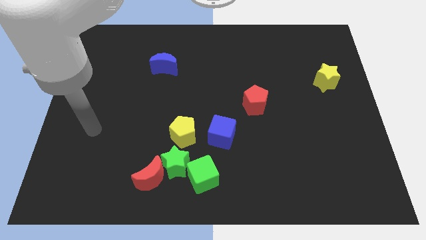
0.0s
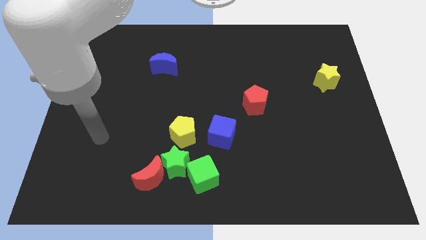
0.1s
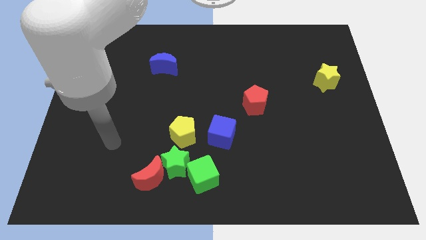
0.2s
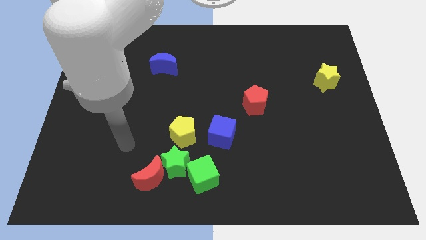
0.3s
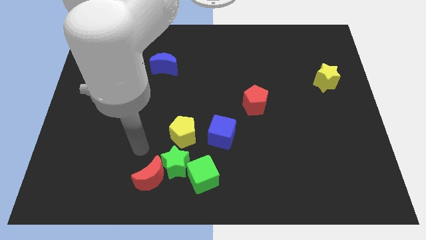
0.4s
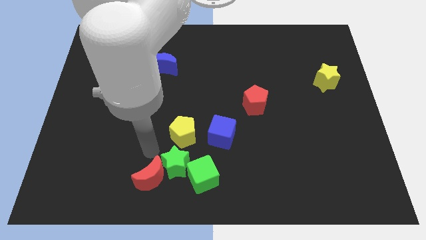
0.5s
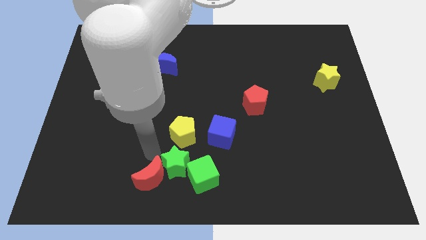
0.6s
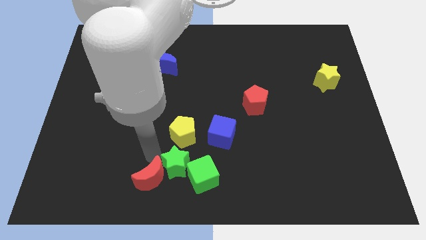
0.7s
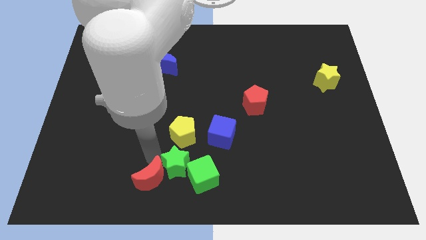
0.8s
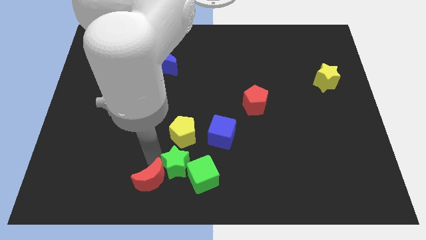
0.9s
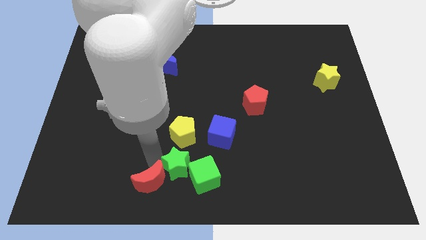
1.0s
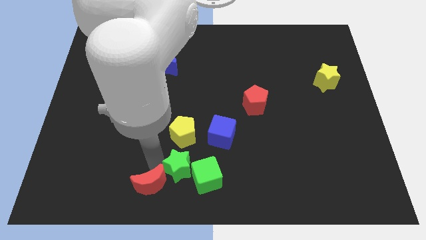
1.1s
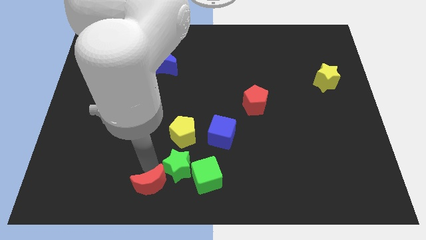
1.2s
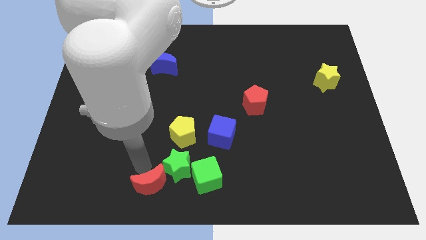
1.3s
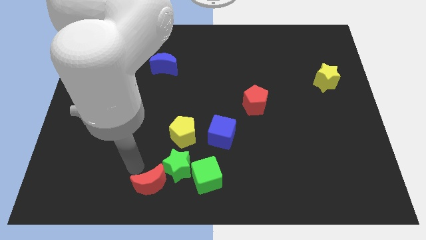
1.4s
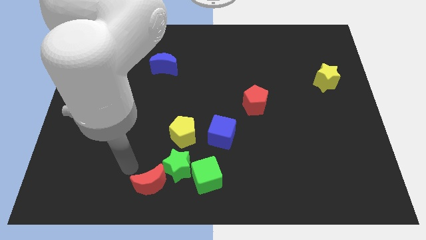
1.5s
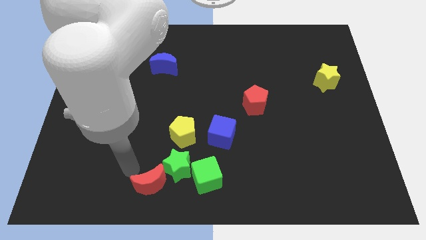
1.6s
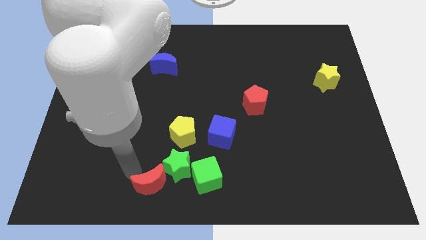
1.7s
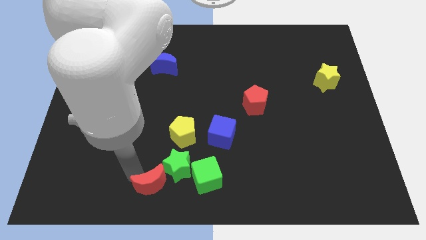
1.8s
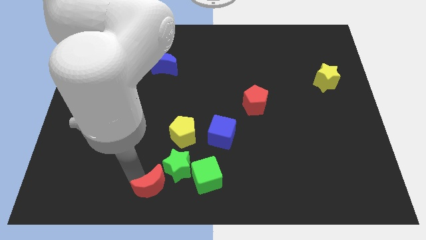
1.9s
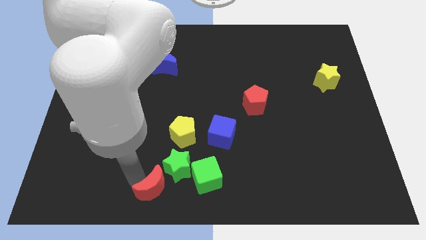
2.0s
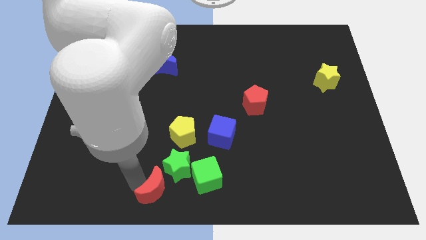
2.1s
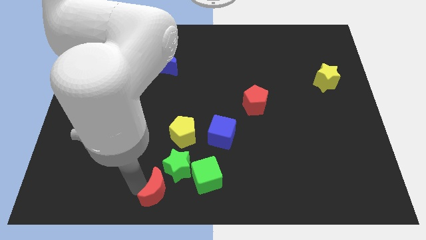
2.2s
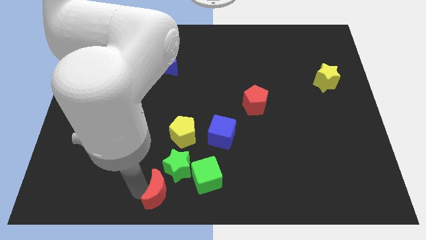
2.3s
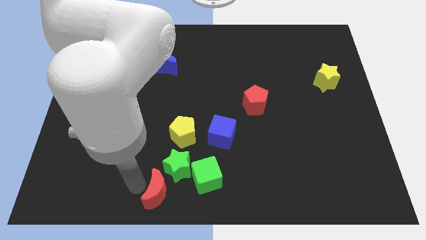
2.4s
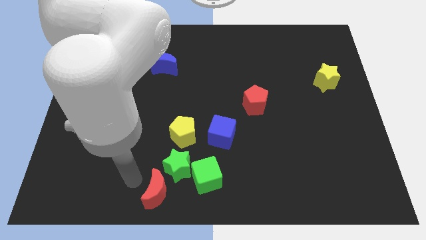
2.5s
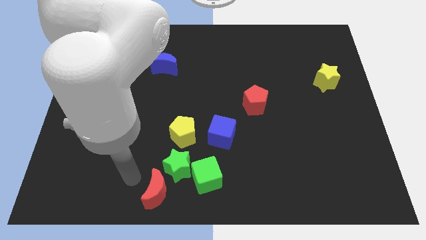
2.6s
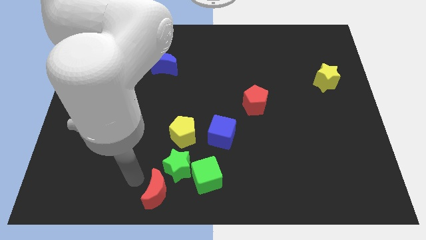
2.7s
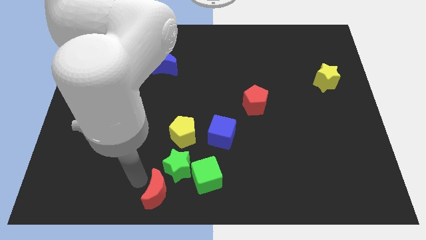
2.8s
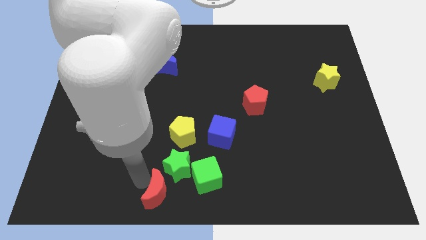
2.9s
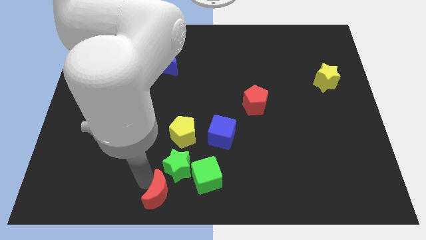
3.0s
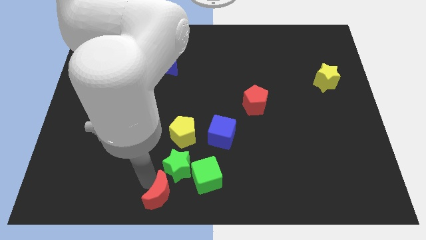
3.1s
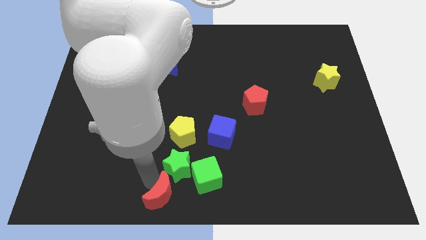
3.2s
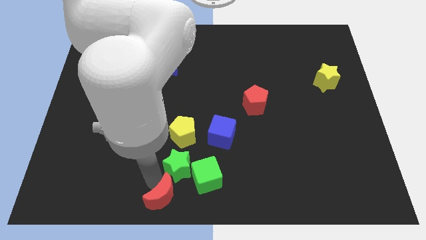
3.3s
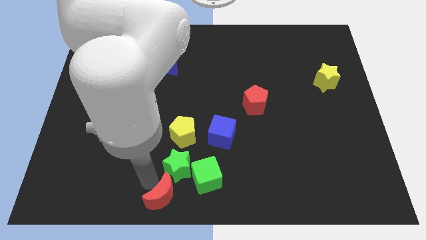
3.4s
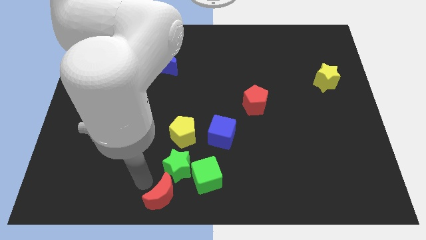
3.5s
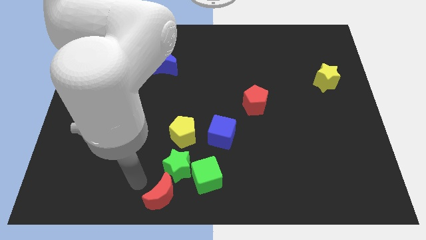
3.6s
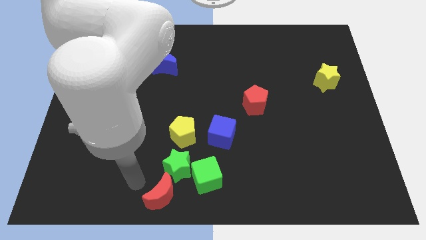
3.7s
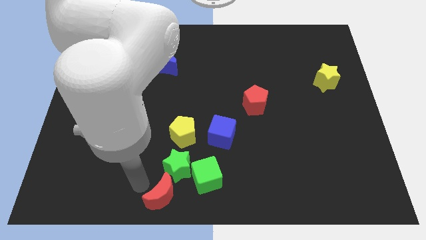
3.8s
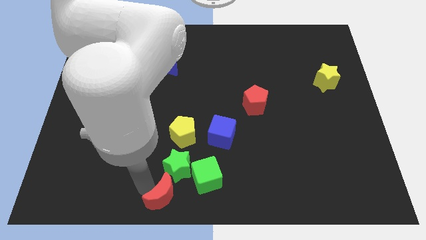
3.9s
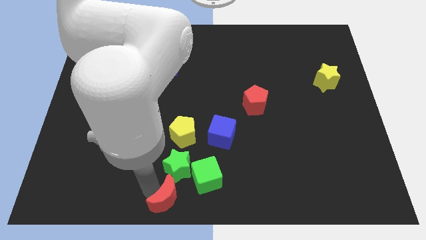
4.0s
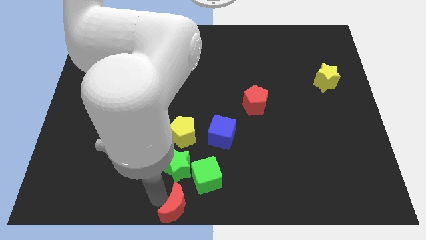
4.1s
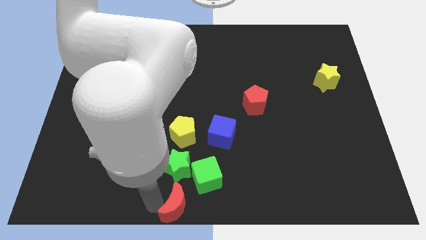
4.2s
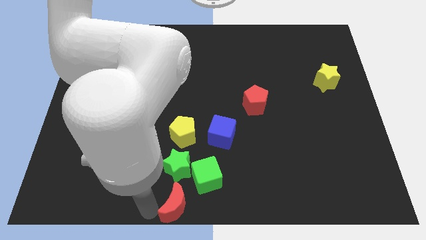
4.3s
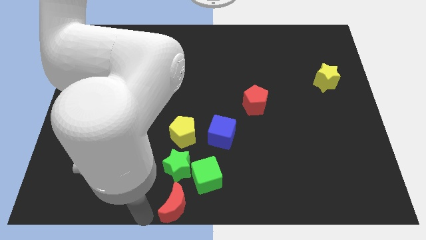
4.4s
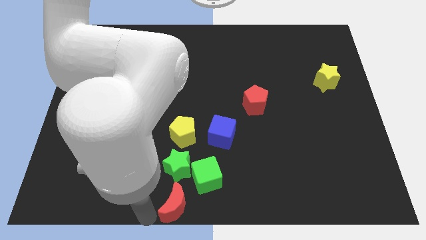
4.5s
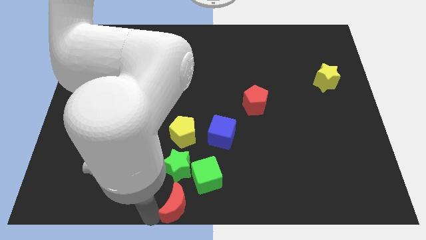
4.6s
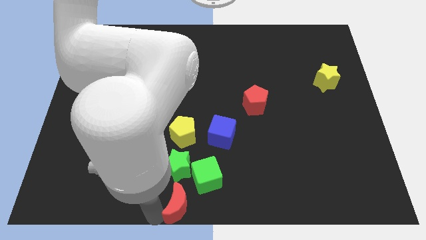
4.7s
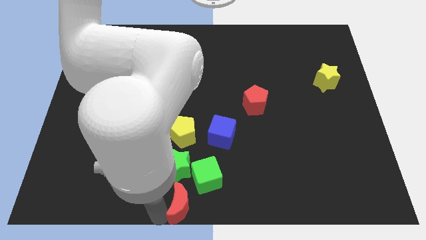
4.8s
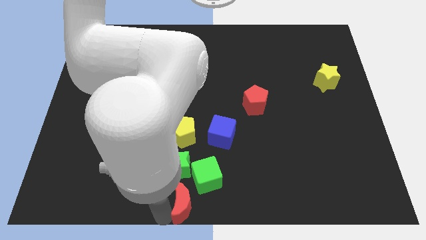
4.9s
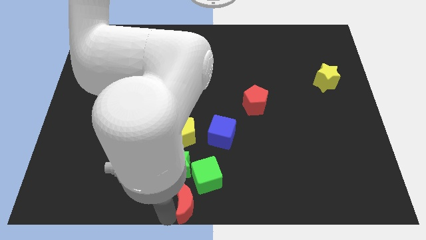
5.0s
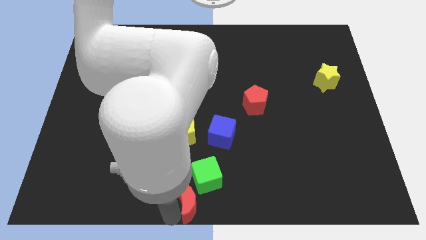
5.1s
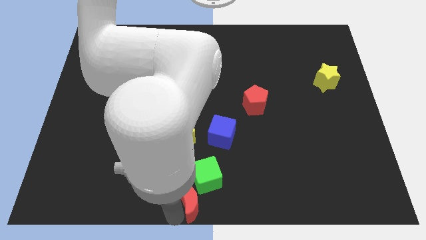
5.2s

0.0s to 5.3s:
push the red moon a little bit right

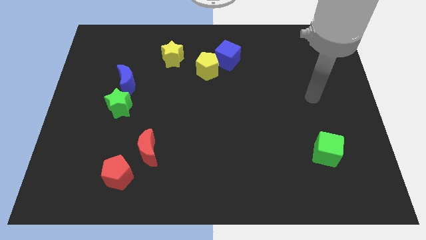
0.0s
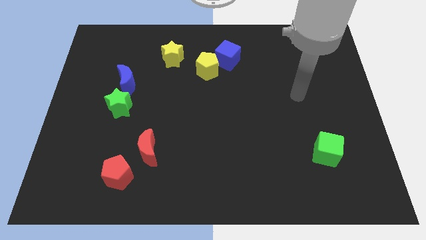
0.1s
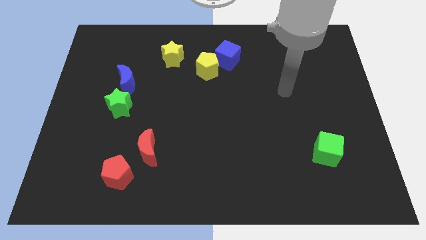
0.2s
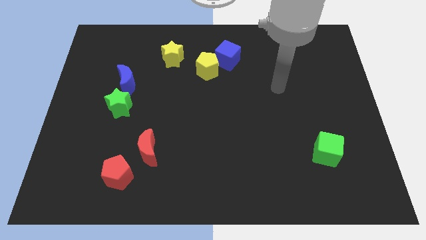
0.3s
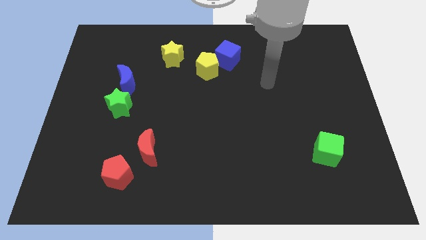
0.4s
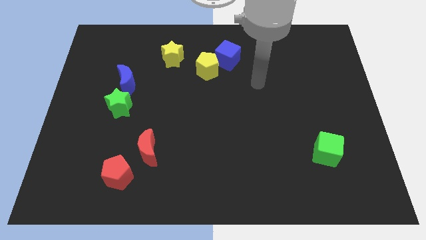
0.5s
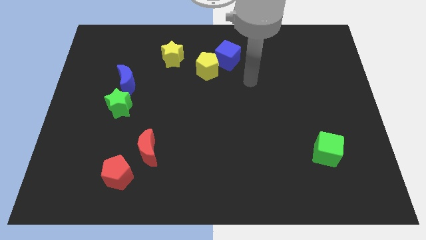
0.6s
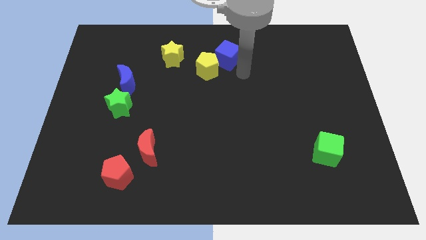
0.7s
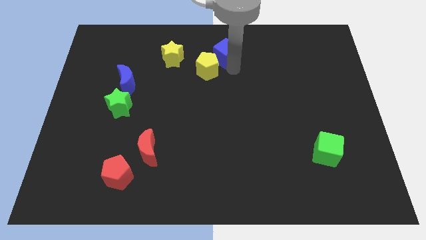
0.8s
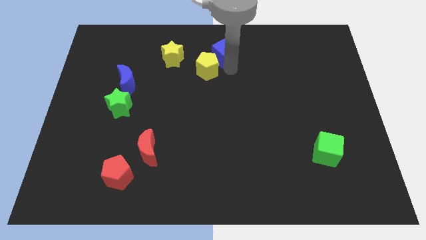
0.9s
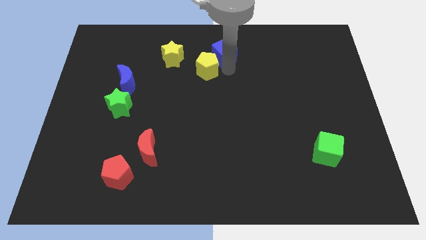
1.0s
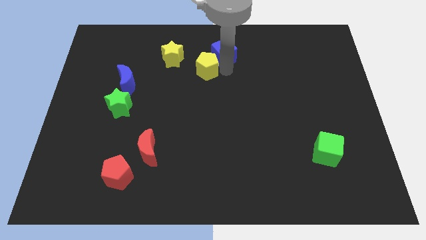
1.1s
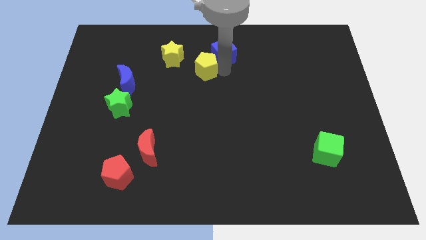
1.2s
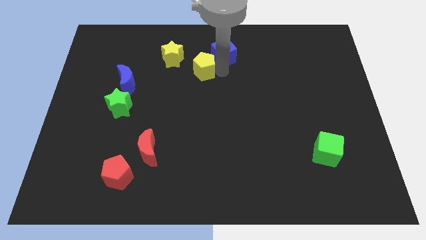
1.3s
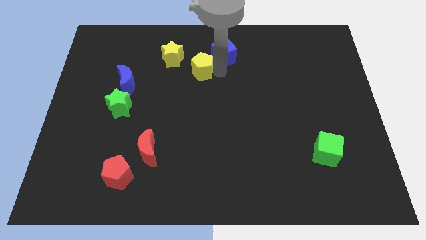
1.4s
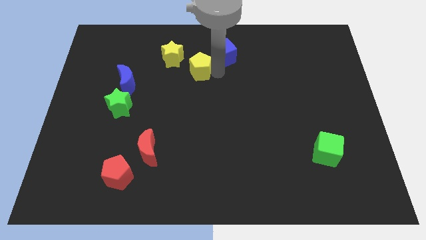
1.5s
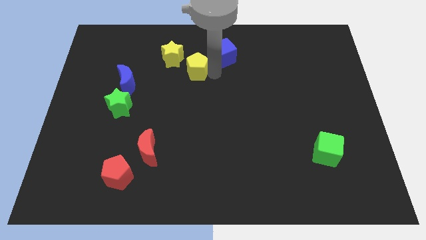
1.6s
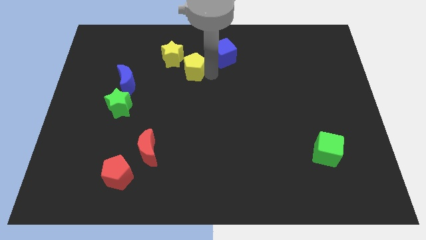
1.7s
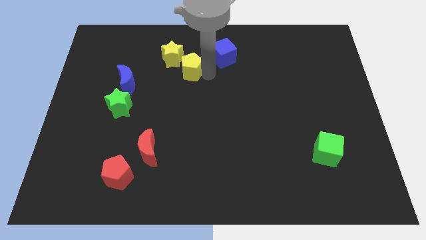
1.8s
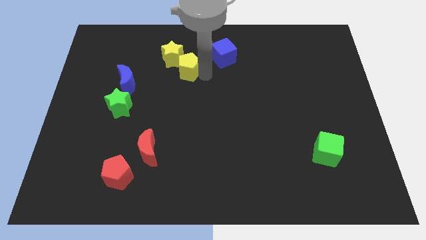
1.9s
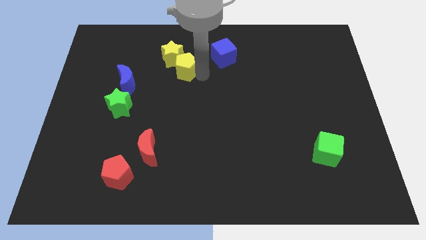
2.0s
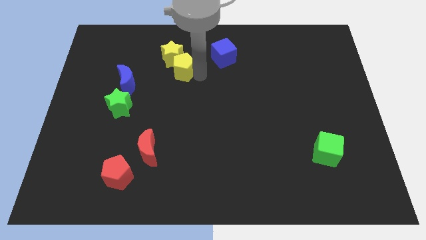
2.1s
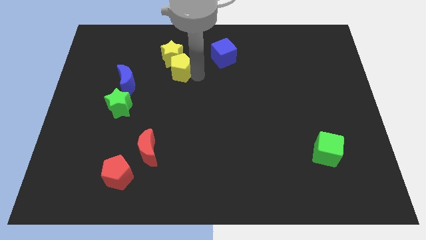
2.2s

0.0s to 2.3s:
slightly push the yellow pentagon to the left

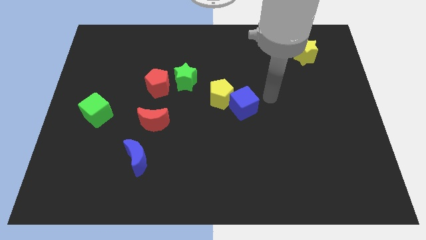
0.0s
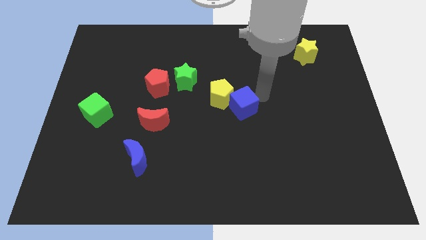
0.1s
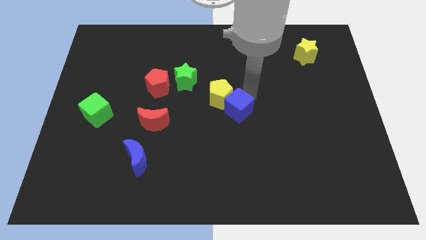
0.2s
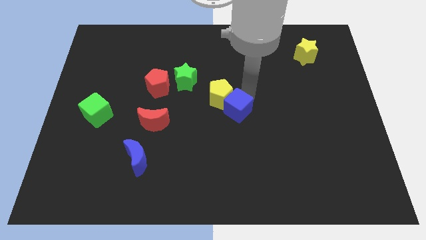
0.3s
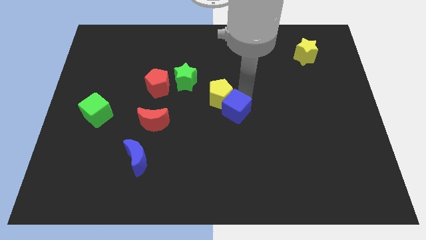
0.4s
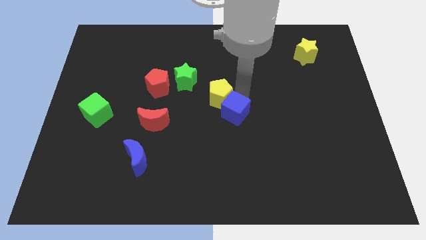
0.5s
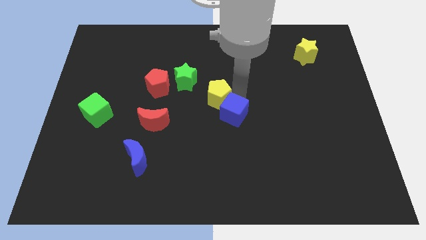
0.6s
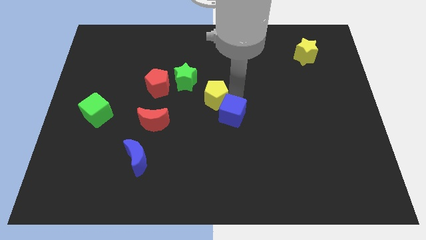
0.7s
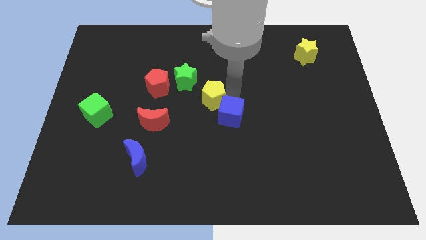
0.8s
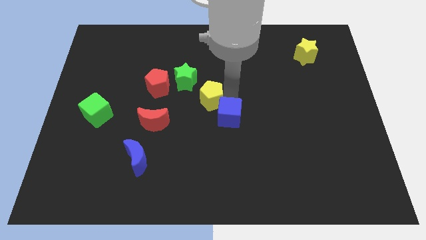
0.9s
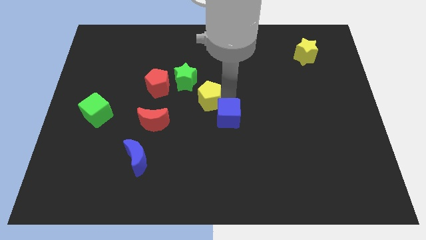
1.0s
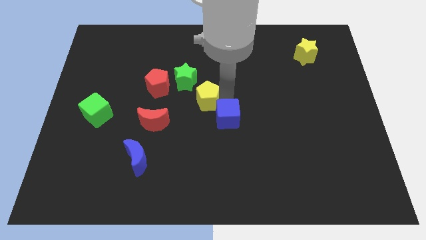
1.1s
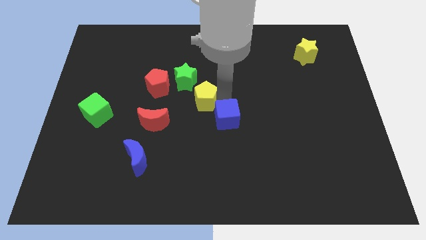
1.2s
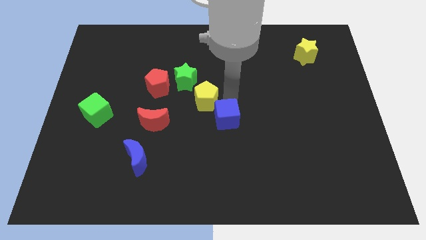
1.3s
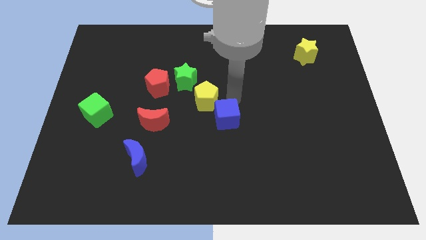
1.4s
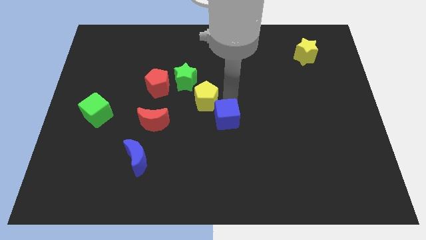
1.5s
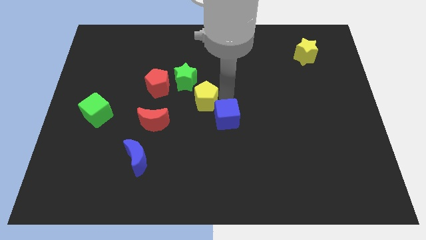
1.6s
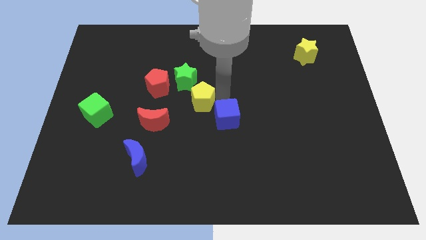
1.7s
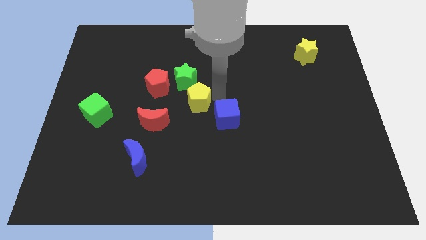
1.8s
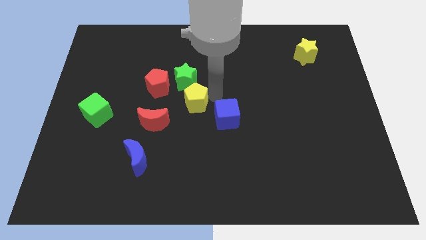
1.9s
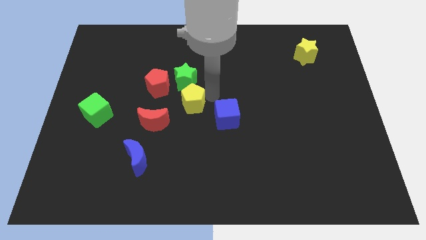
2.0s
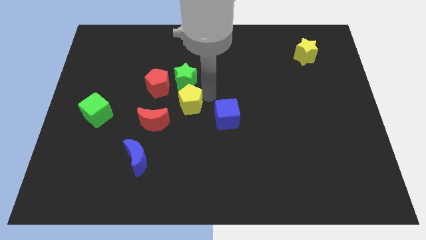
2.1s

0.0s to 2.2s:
move the yellow pentagon a little to the left
